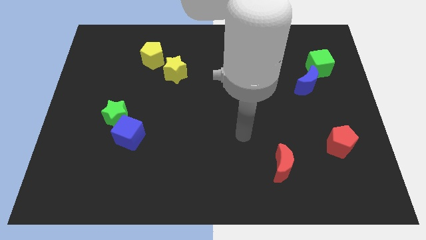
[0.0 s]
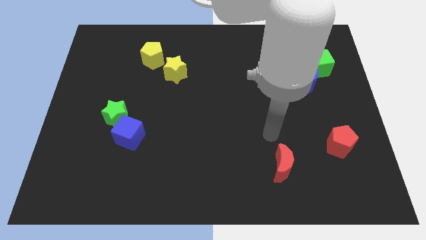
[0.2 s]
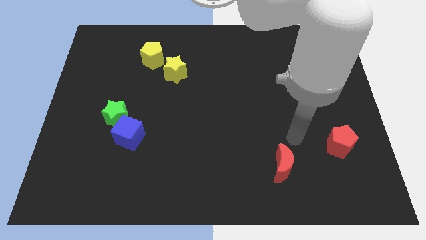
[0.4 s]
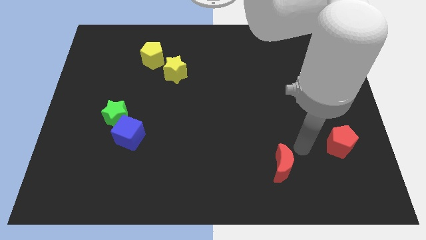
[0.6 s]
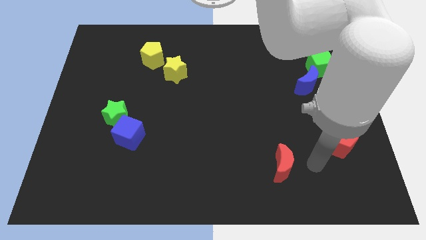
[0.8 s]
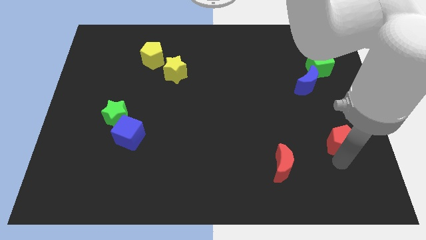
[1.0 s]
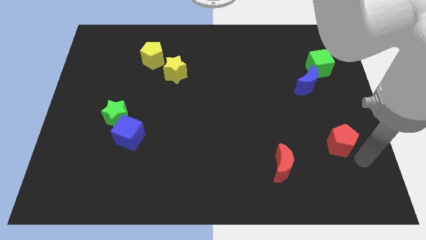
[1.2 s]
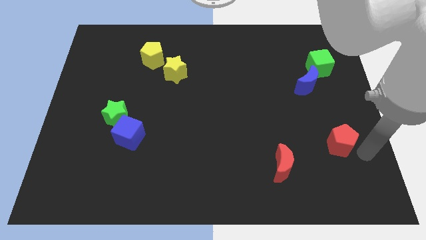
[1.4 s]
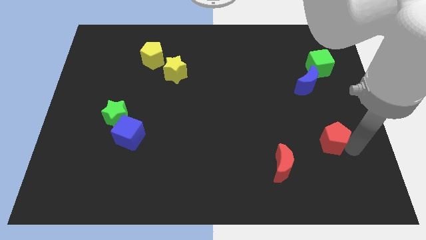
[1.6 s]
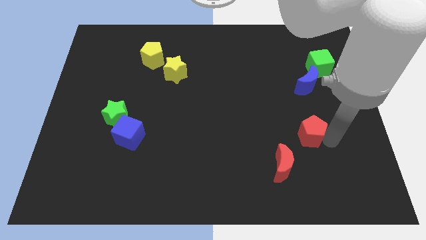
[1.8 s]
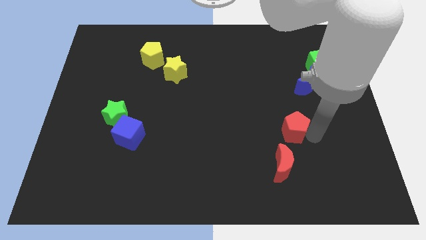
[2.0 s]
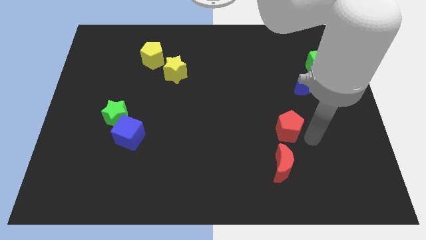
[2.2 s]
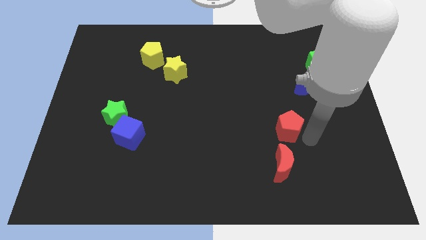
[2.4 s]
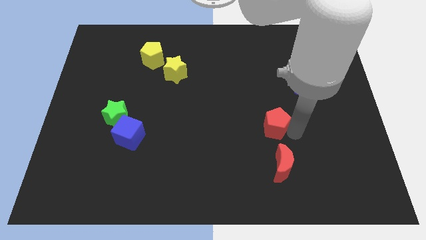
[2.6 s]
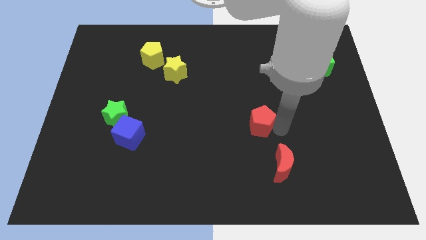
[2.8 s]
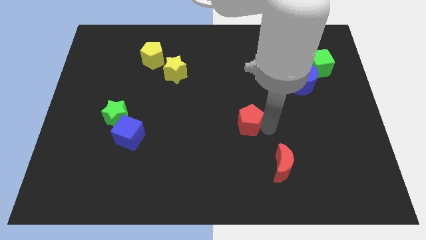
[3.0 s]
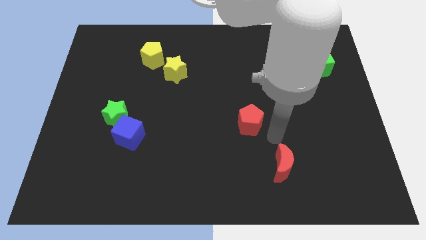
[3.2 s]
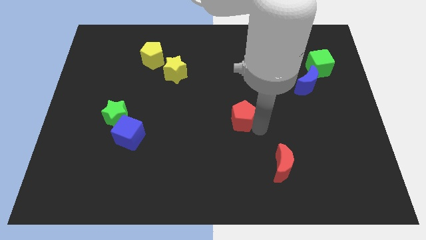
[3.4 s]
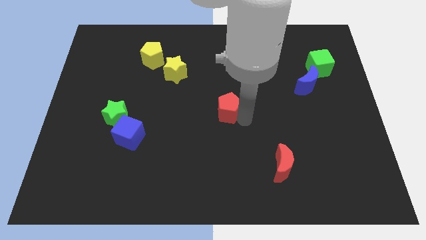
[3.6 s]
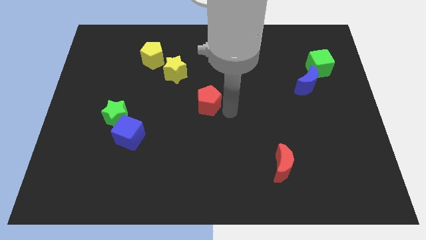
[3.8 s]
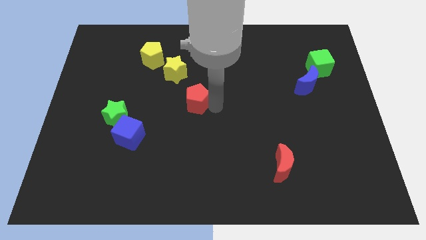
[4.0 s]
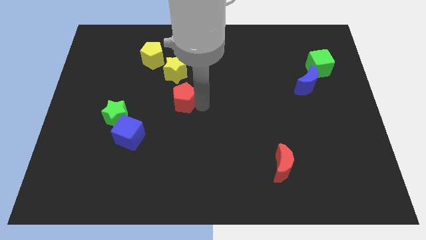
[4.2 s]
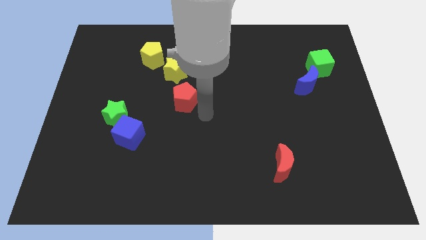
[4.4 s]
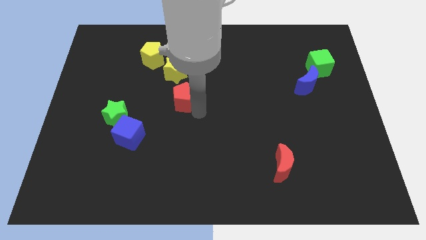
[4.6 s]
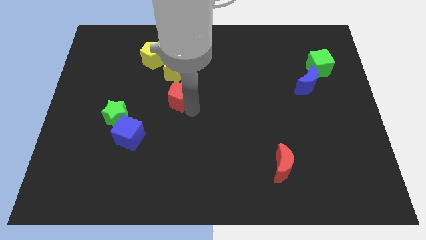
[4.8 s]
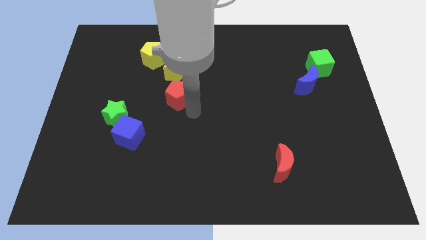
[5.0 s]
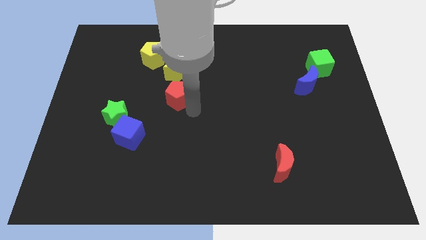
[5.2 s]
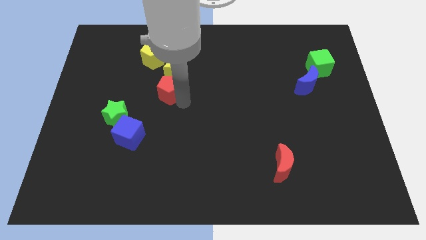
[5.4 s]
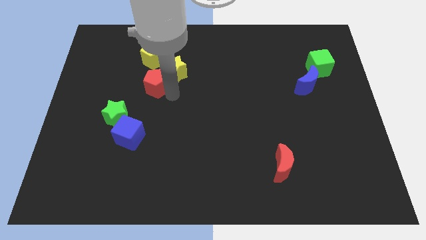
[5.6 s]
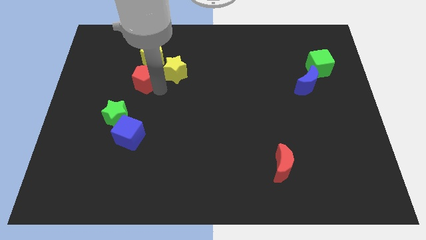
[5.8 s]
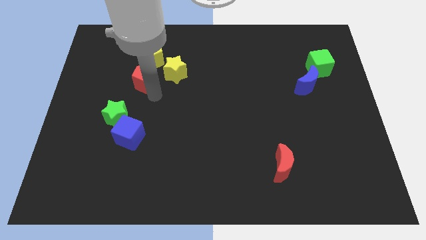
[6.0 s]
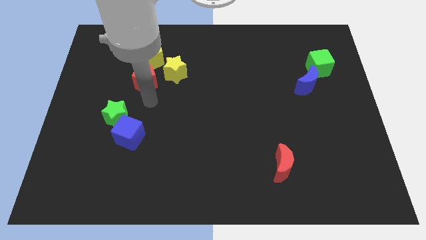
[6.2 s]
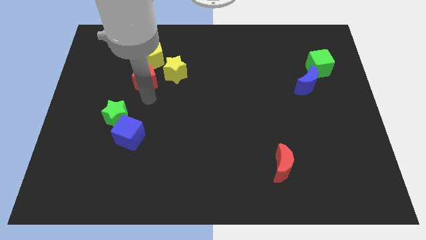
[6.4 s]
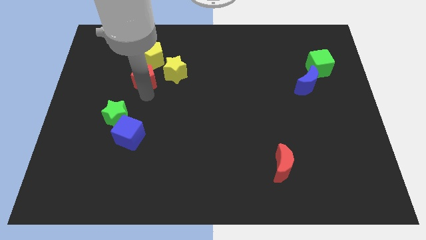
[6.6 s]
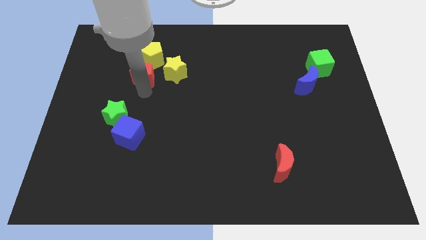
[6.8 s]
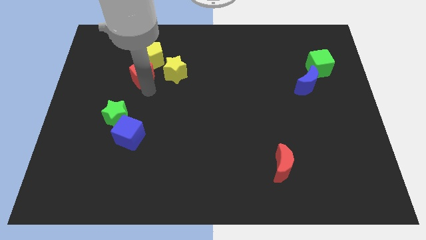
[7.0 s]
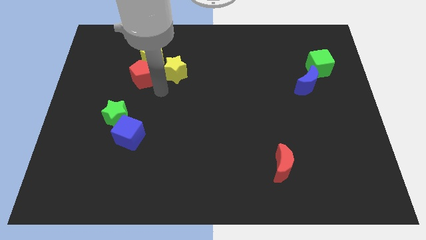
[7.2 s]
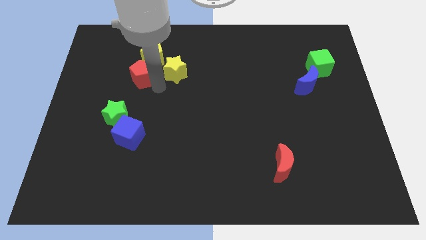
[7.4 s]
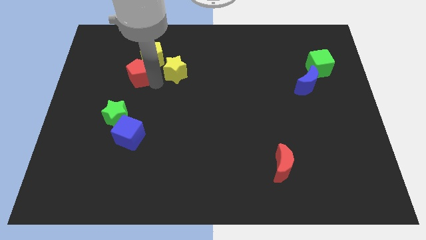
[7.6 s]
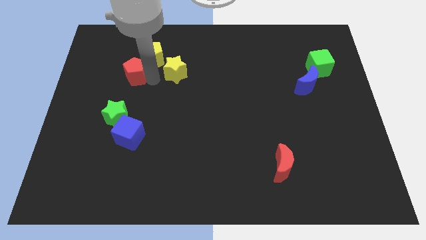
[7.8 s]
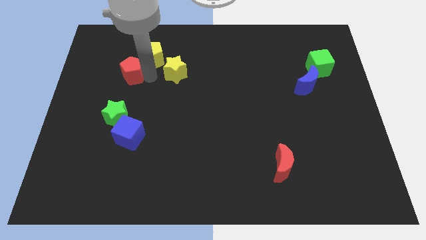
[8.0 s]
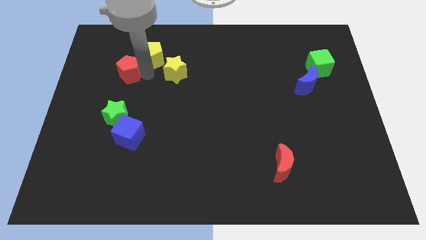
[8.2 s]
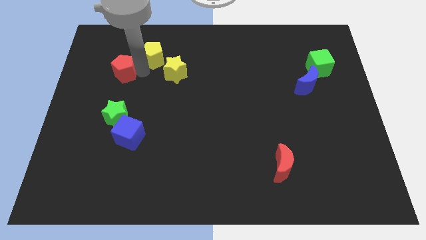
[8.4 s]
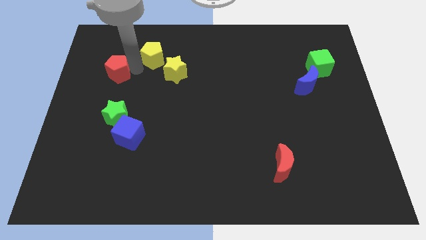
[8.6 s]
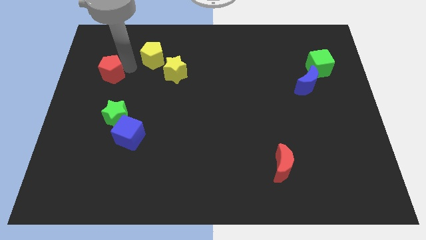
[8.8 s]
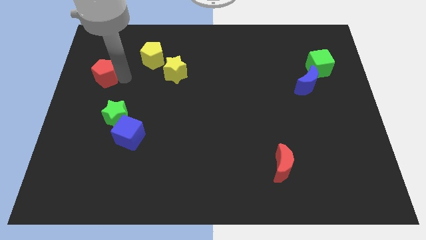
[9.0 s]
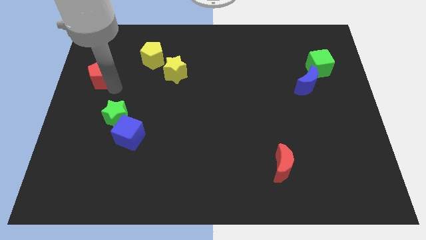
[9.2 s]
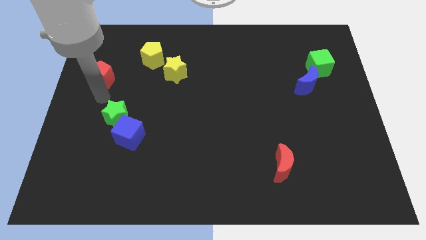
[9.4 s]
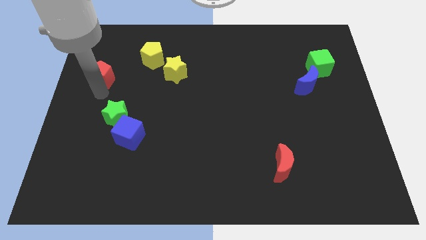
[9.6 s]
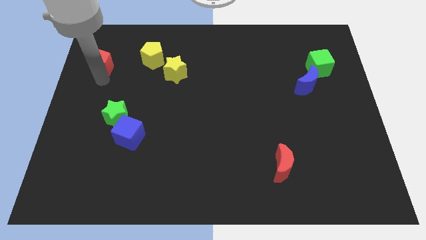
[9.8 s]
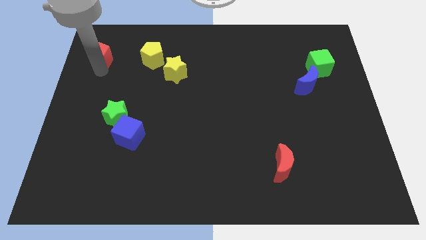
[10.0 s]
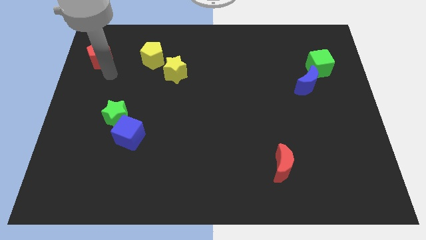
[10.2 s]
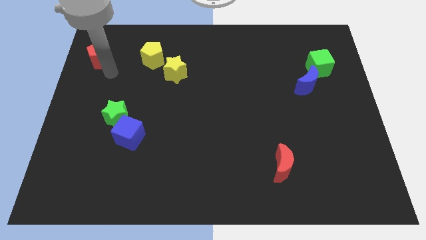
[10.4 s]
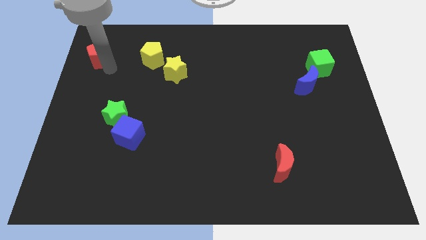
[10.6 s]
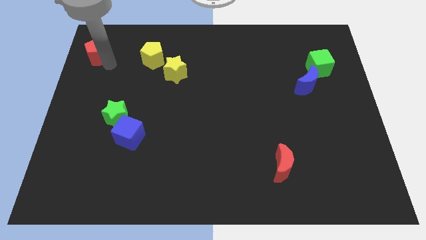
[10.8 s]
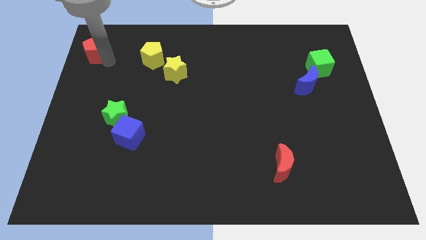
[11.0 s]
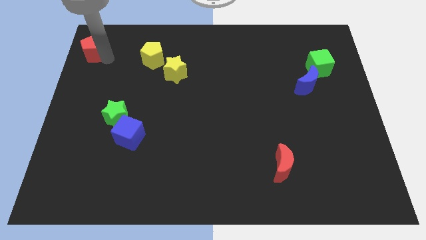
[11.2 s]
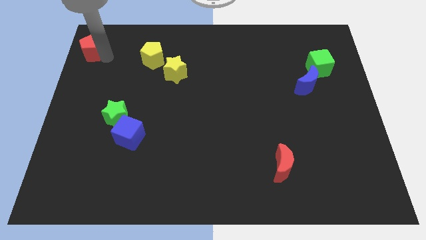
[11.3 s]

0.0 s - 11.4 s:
push the red pentagon to the upper left corner

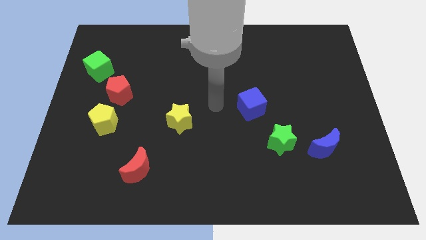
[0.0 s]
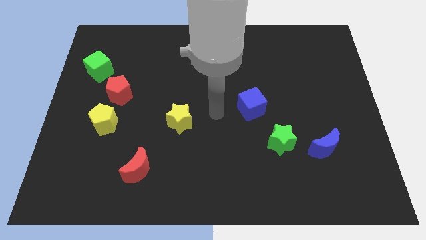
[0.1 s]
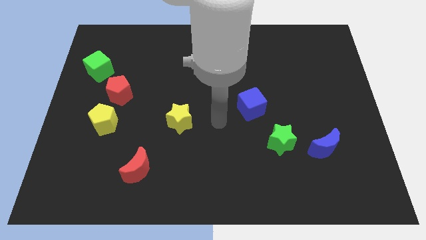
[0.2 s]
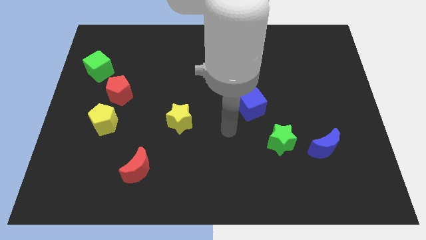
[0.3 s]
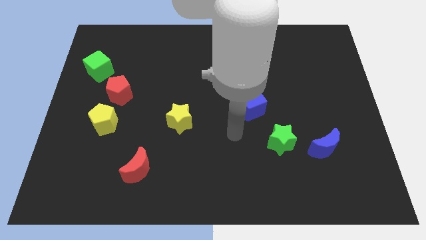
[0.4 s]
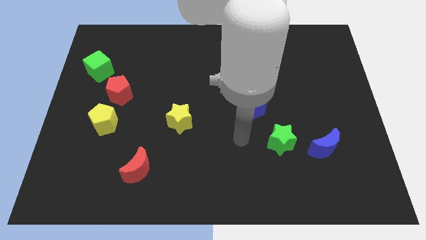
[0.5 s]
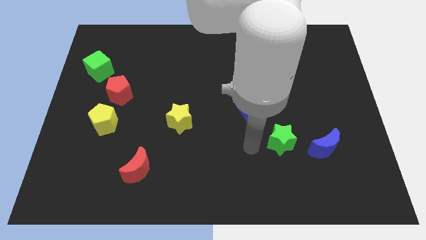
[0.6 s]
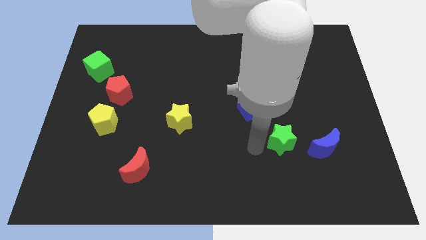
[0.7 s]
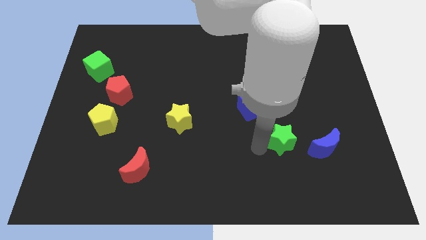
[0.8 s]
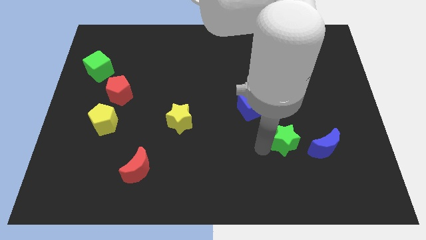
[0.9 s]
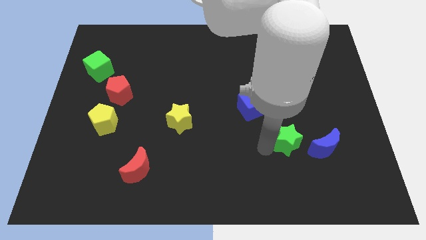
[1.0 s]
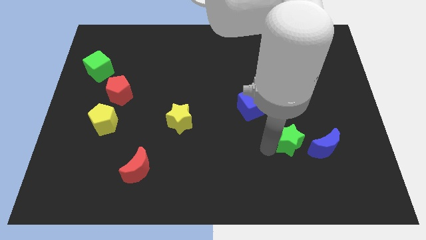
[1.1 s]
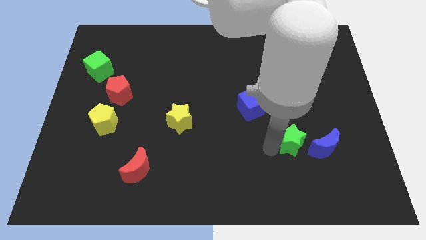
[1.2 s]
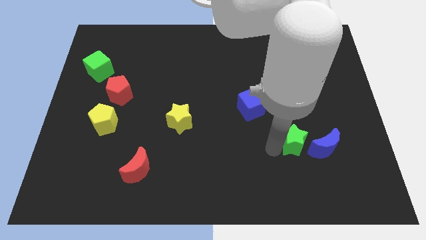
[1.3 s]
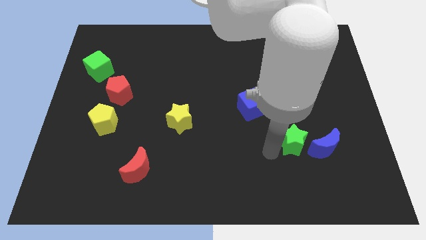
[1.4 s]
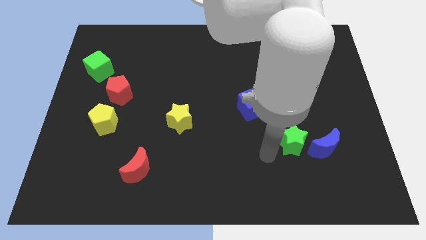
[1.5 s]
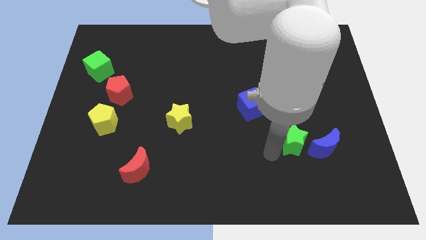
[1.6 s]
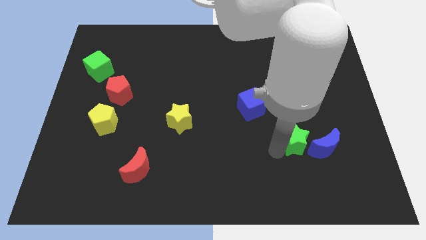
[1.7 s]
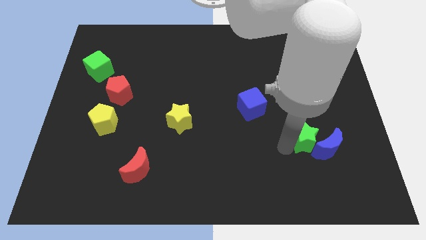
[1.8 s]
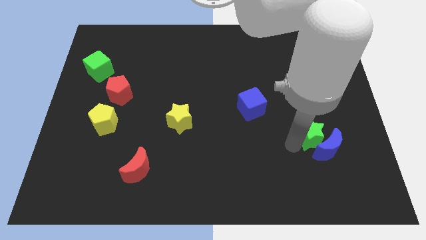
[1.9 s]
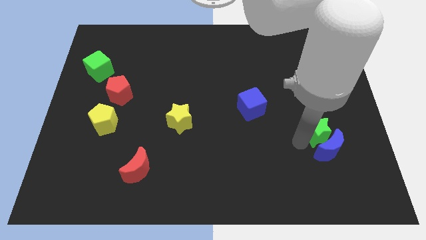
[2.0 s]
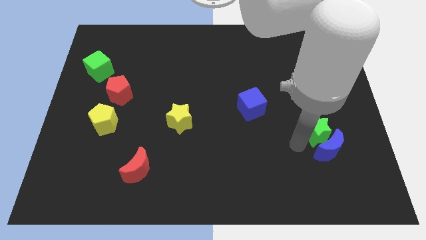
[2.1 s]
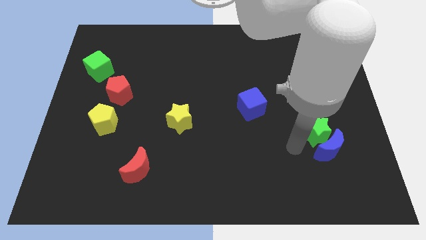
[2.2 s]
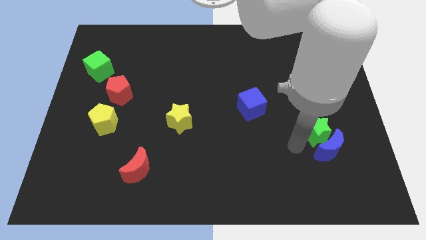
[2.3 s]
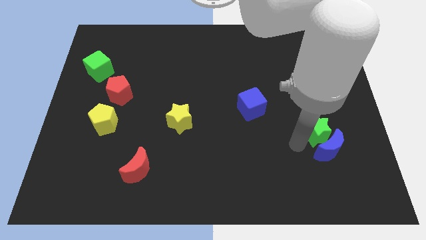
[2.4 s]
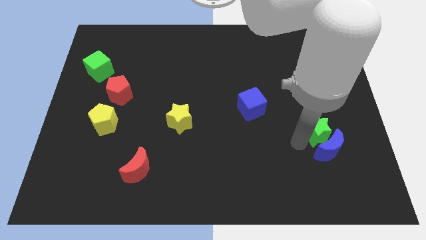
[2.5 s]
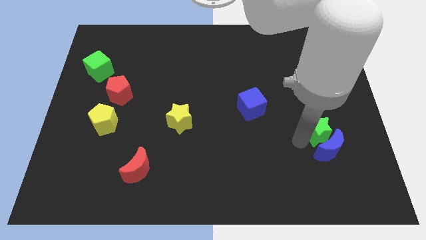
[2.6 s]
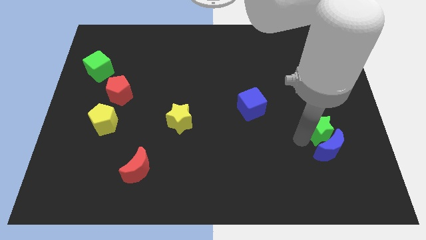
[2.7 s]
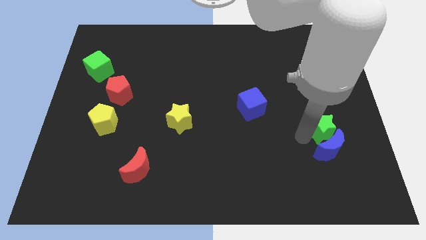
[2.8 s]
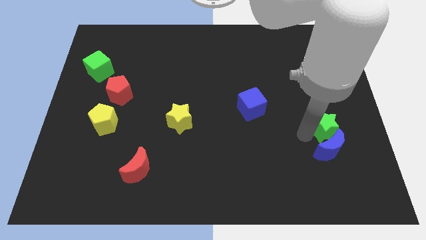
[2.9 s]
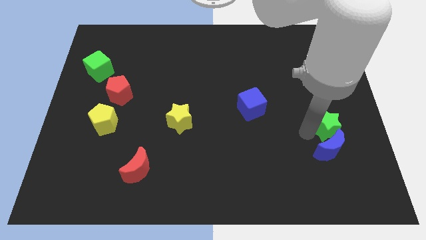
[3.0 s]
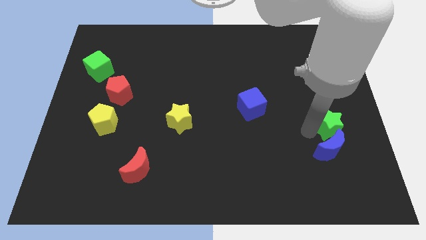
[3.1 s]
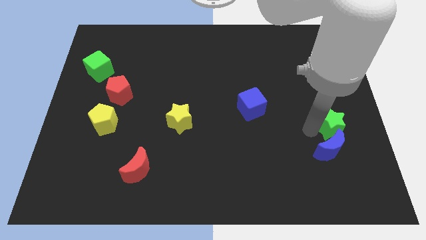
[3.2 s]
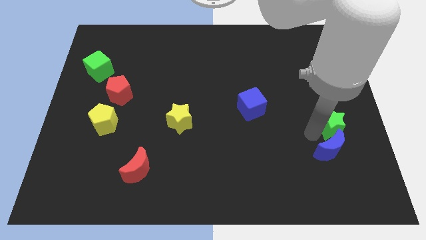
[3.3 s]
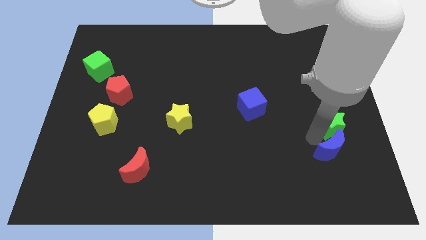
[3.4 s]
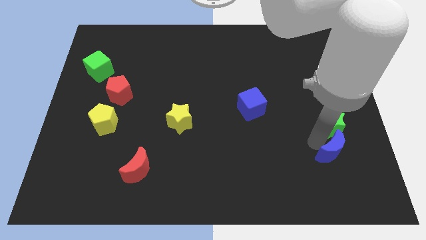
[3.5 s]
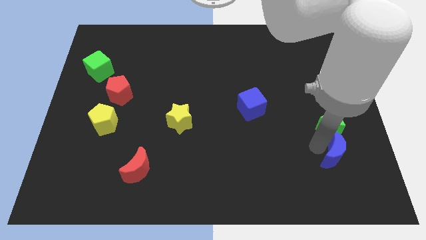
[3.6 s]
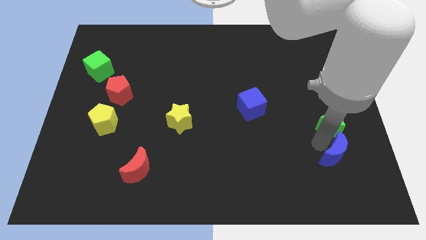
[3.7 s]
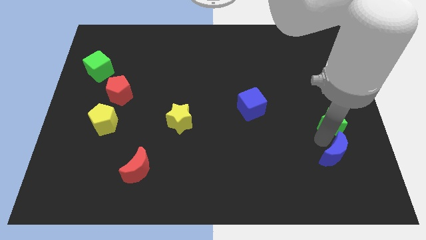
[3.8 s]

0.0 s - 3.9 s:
move the green star to the right side of the board
